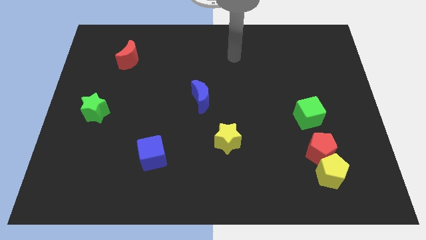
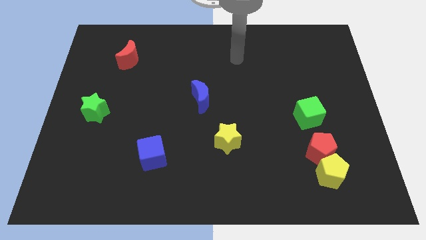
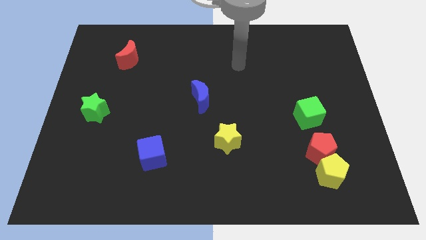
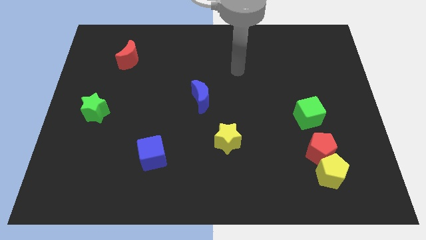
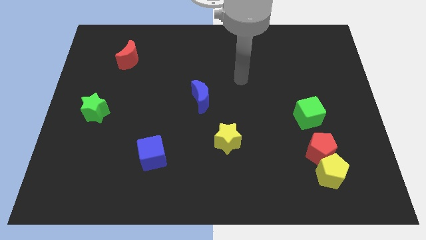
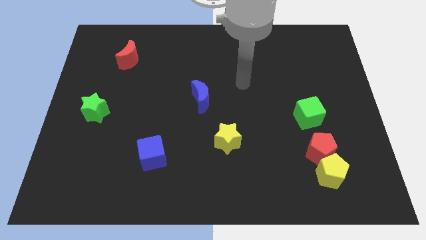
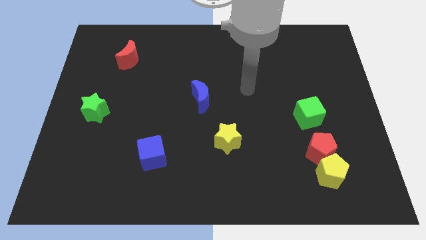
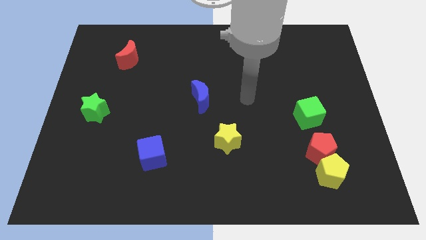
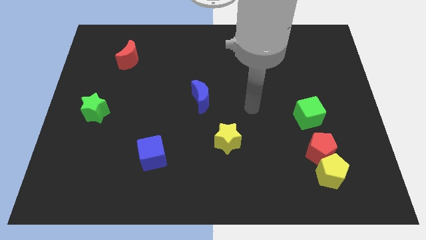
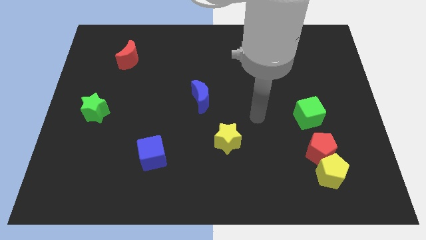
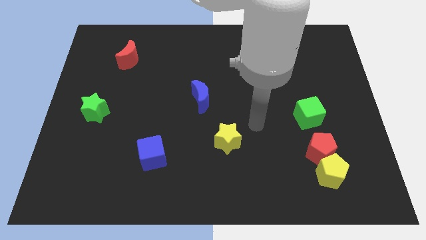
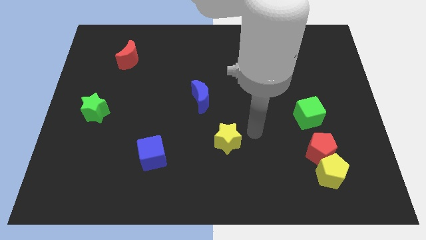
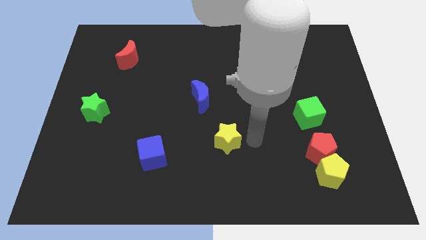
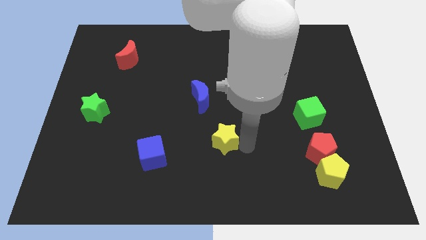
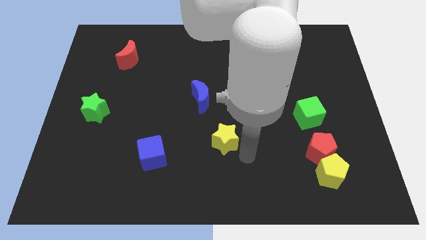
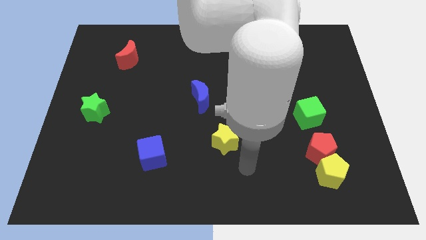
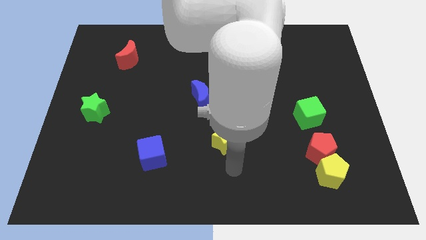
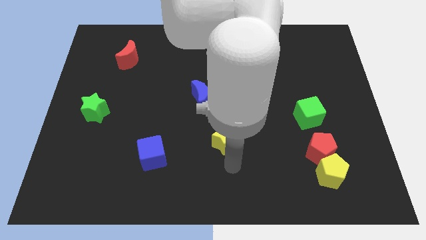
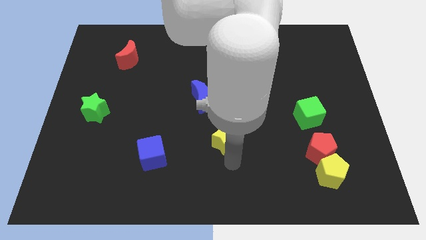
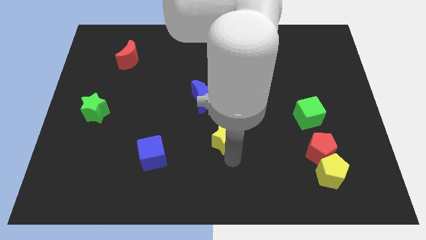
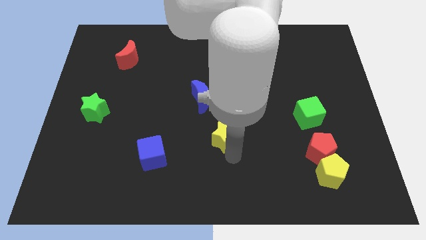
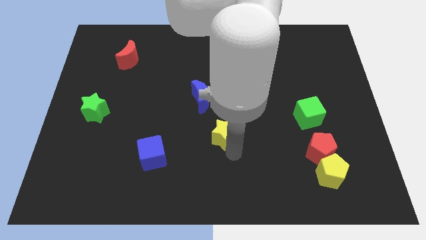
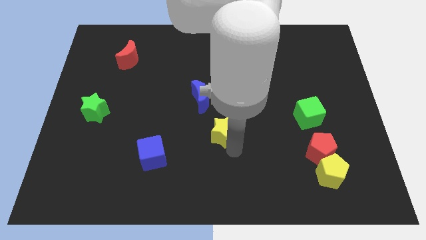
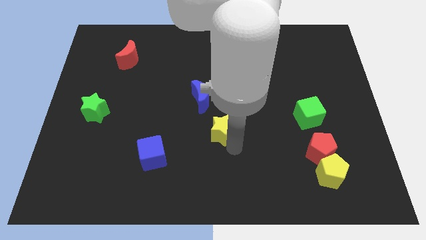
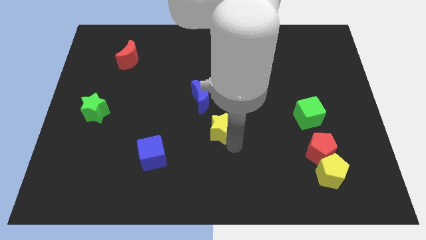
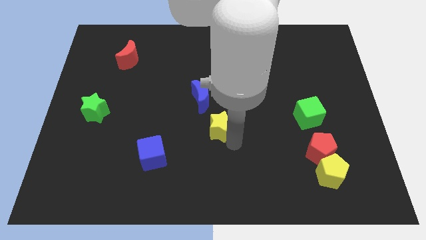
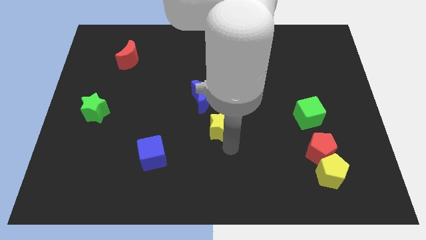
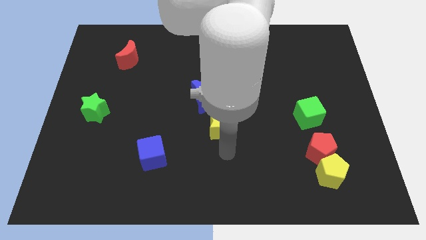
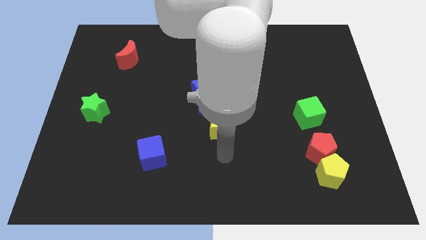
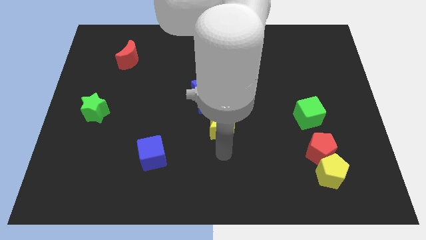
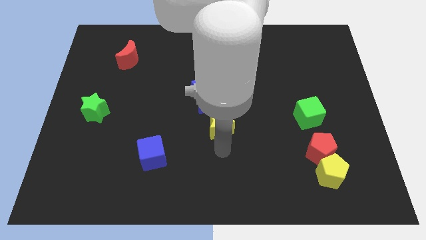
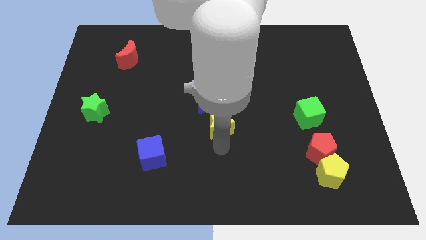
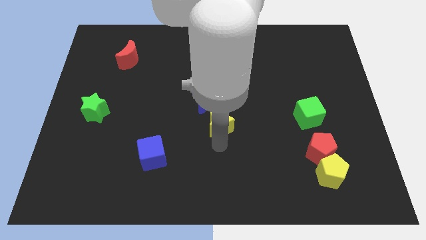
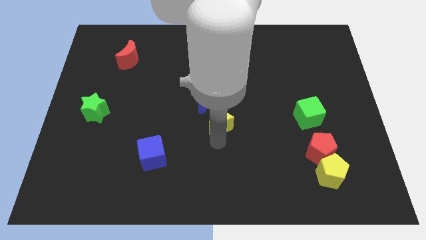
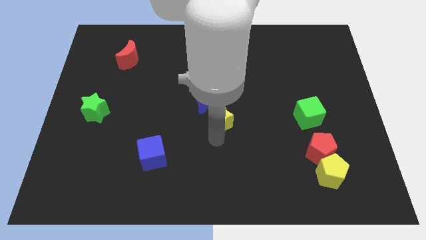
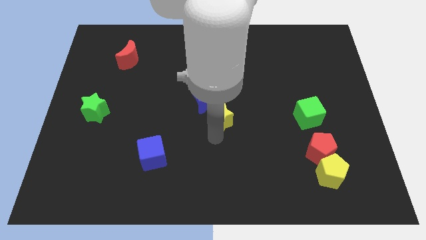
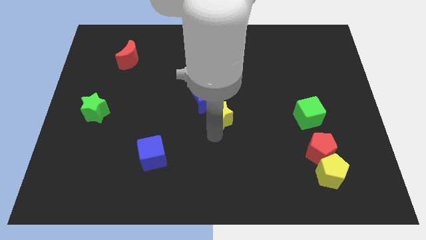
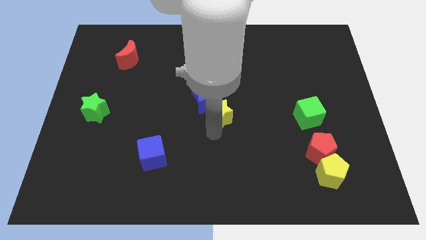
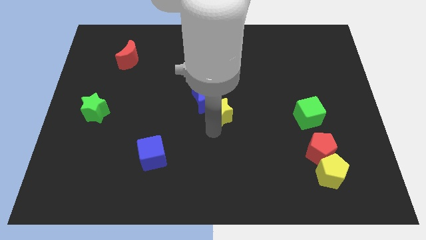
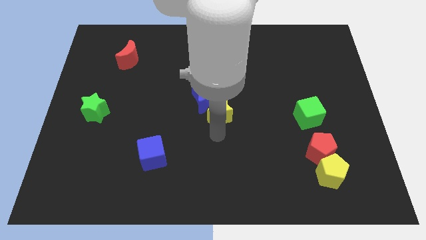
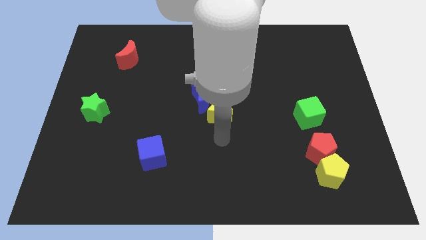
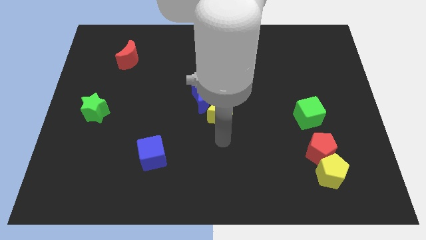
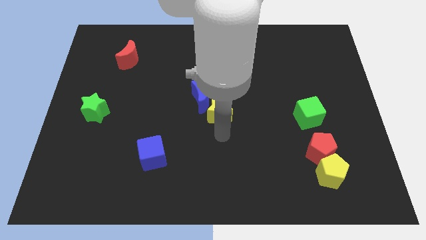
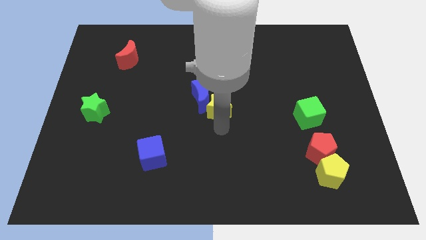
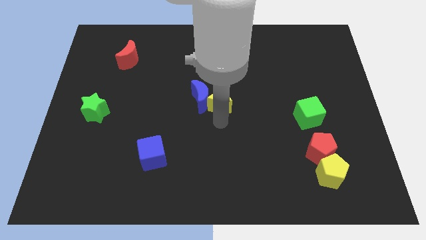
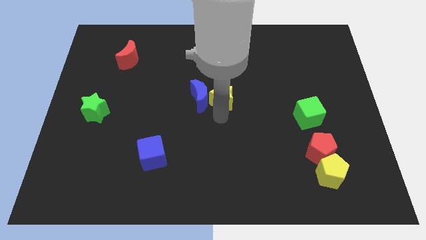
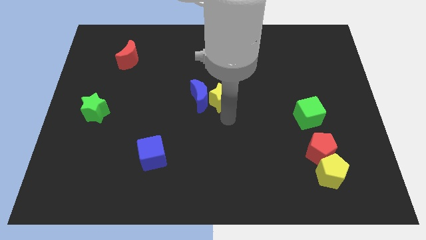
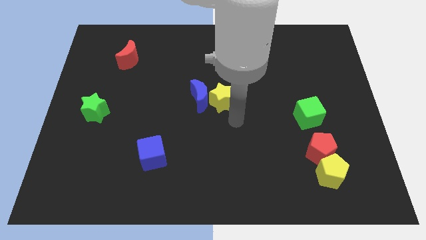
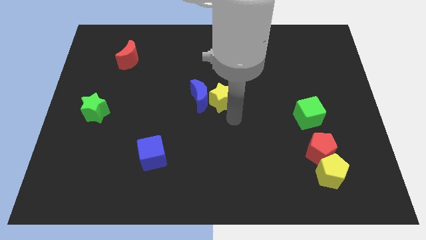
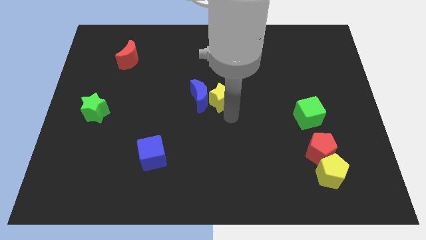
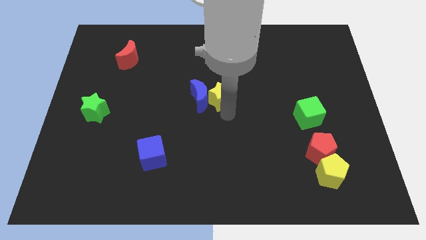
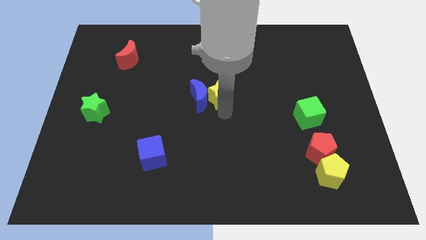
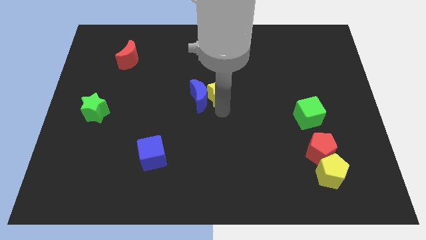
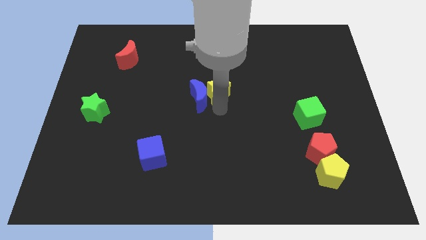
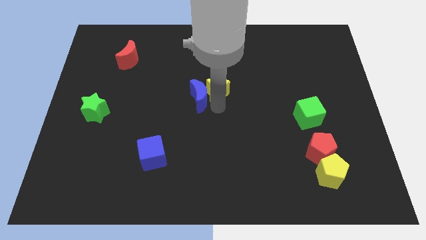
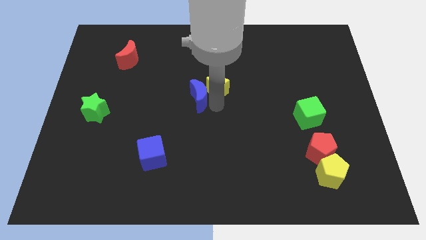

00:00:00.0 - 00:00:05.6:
move the yellow star above the blue moon

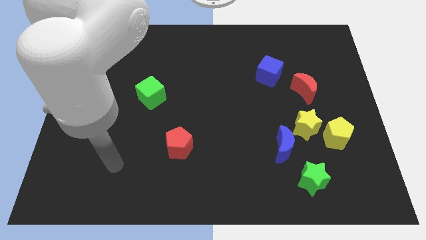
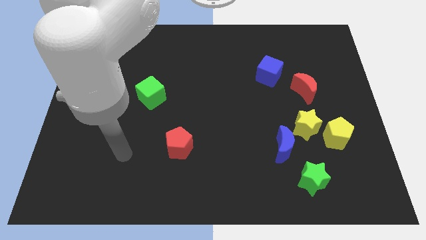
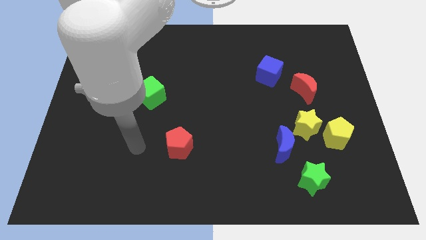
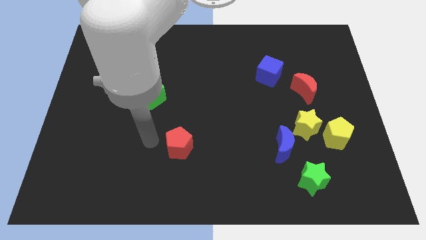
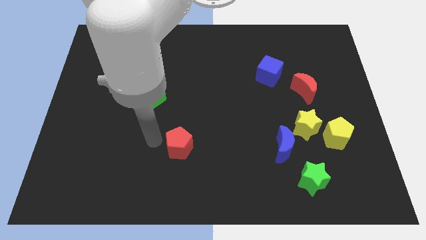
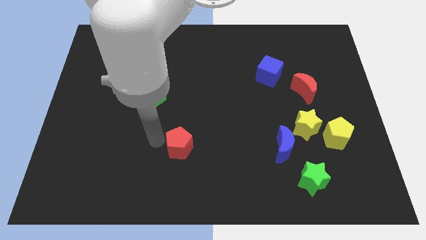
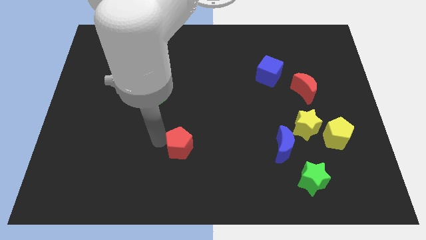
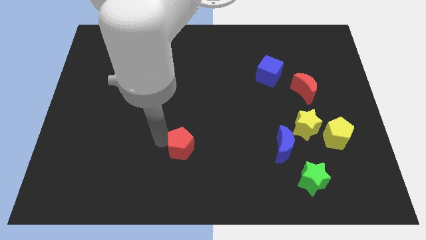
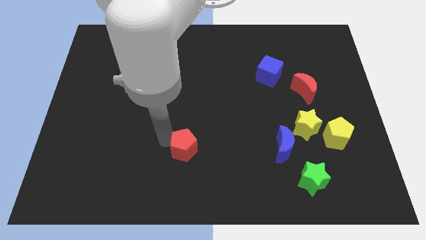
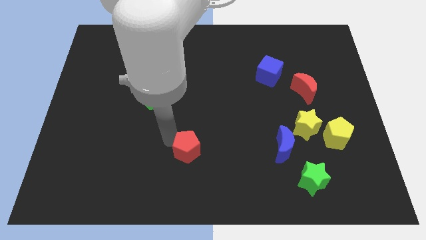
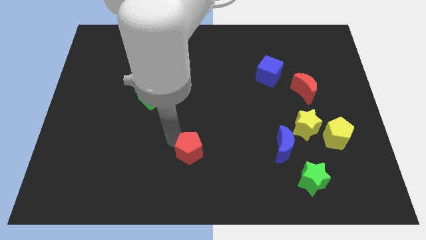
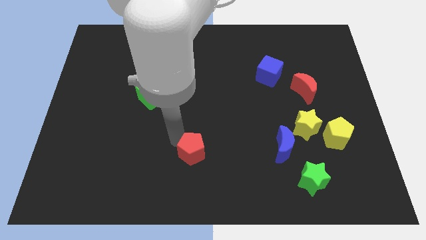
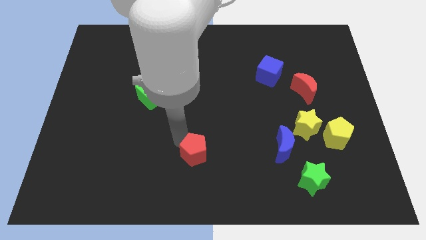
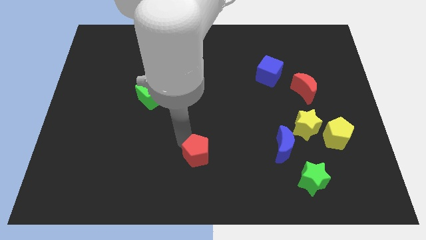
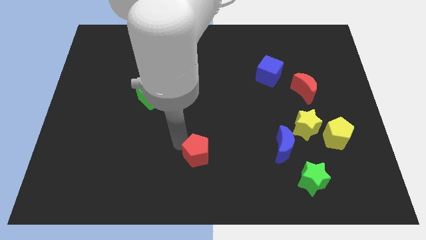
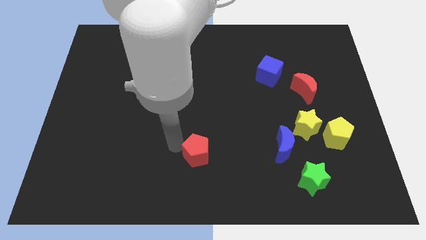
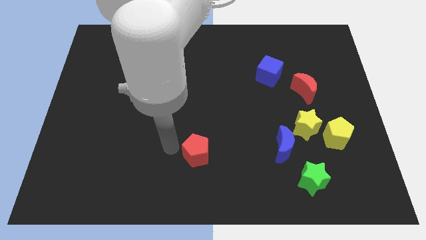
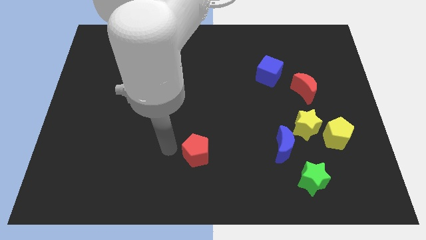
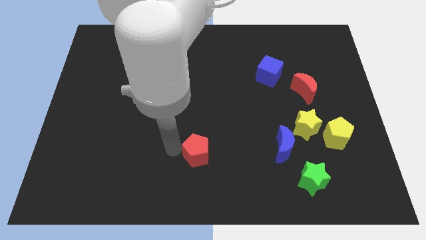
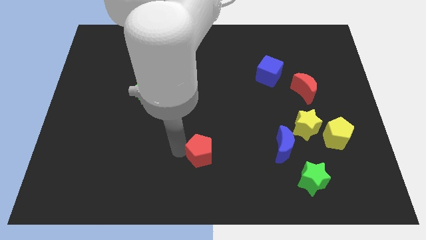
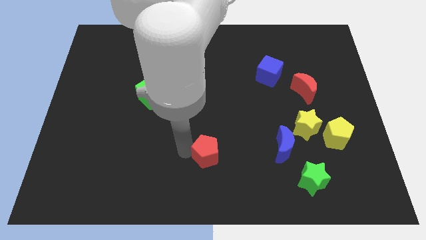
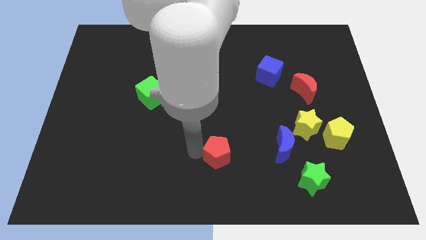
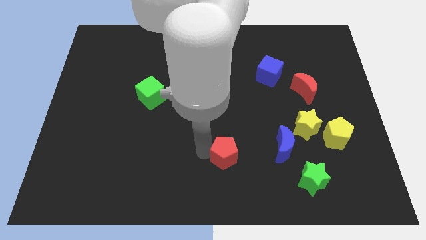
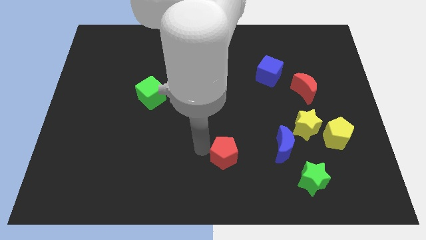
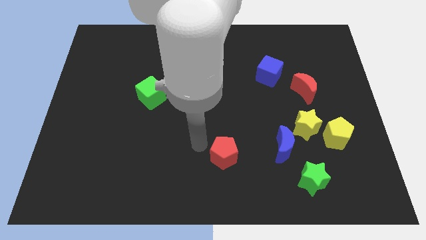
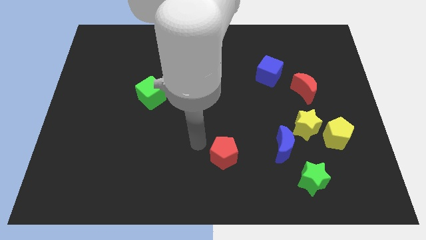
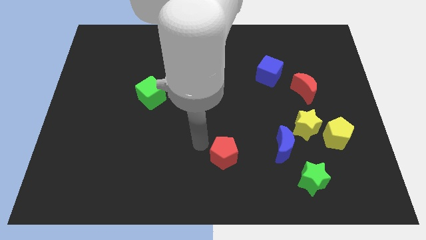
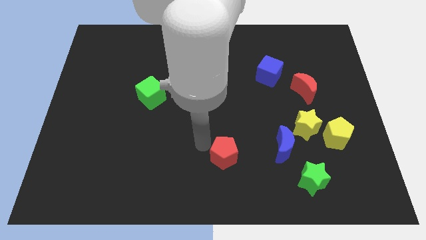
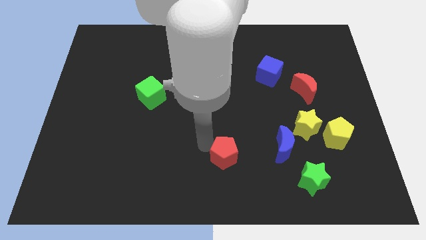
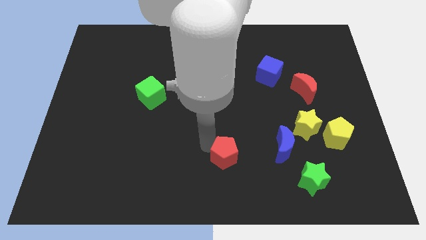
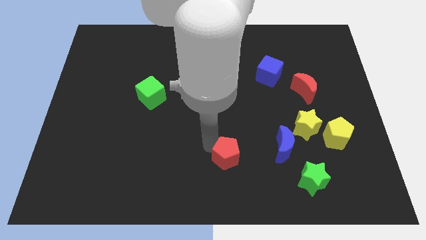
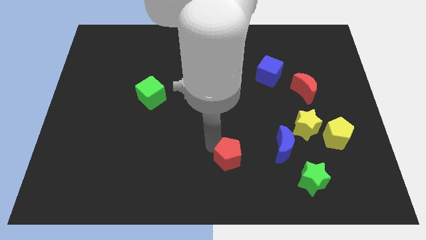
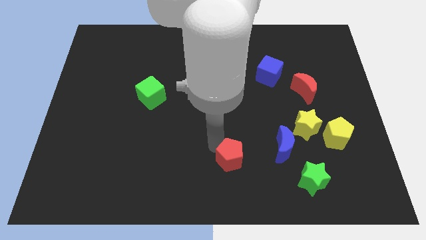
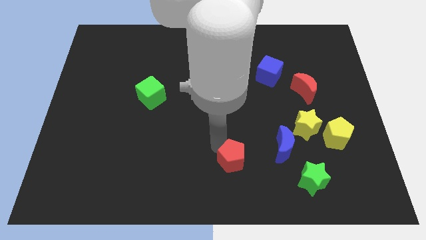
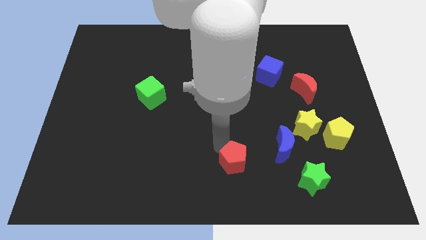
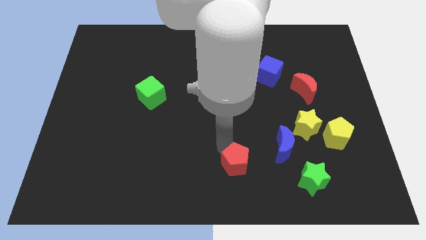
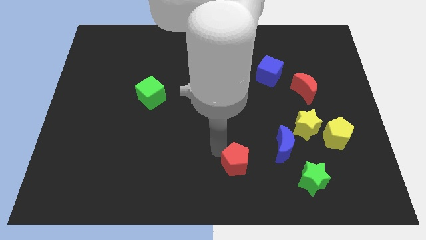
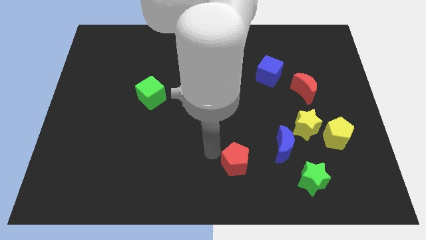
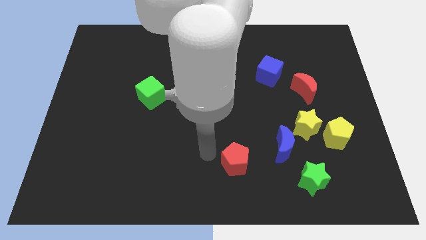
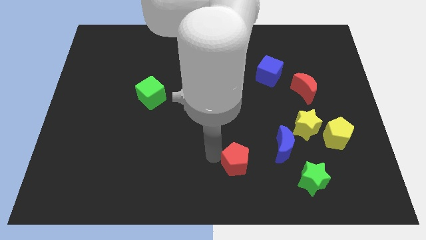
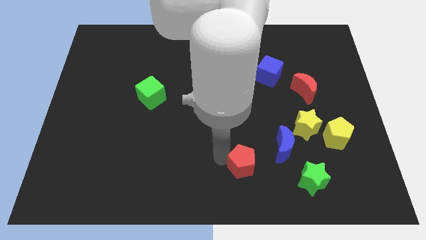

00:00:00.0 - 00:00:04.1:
slide the red pentagon to the bottom left side of the blue moon
